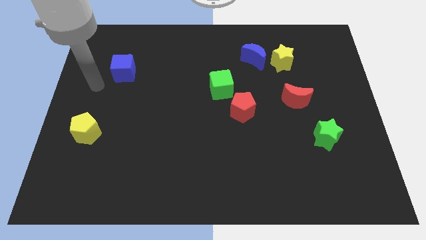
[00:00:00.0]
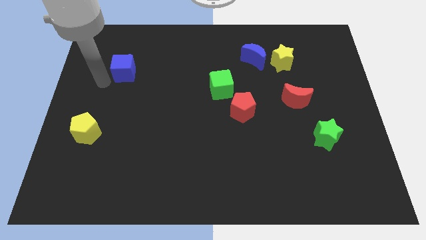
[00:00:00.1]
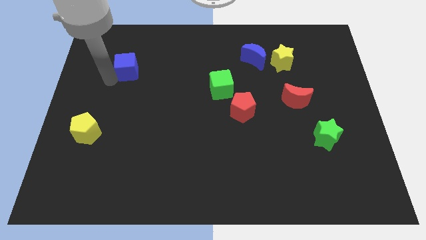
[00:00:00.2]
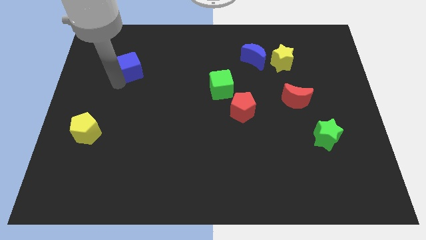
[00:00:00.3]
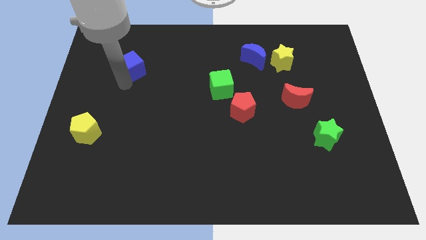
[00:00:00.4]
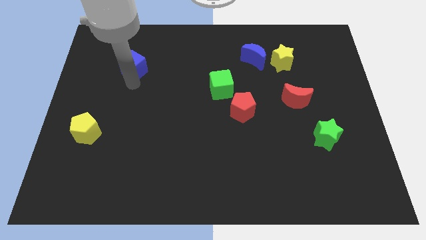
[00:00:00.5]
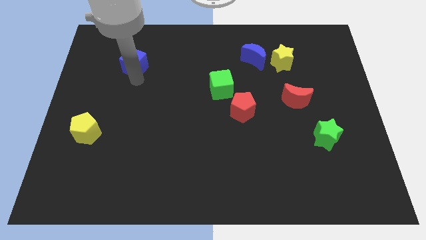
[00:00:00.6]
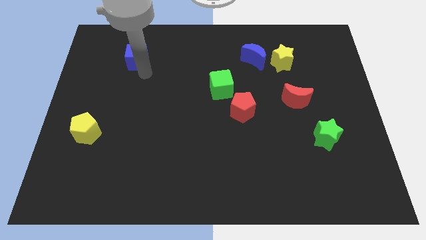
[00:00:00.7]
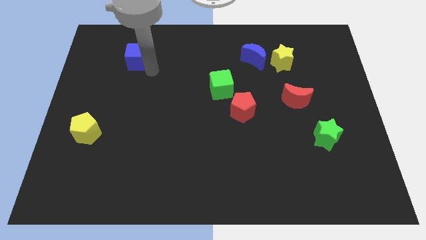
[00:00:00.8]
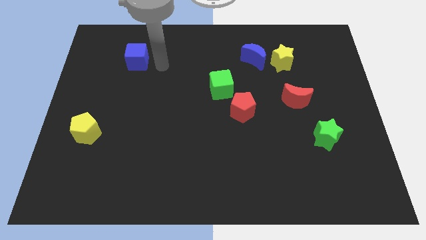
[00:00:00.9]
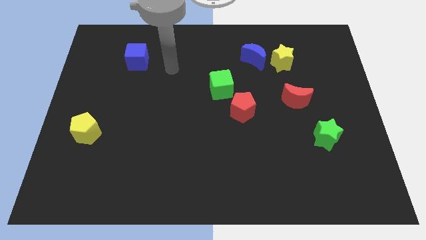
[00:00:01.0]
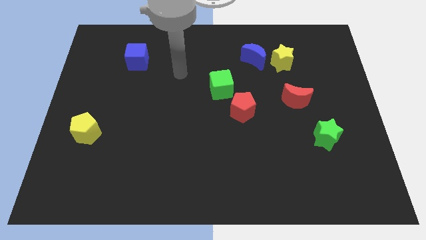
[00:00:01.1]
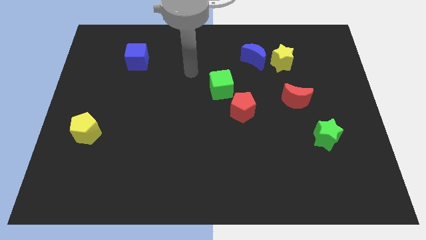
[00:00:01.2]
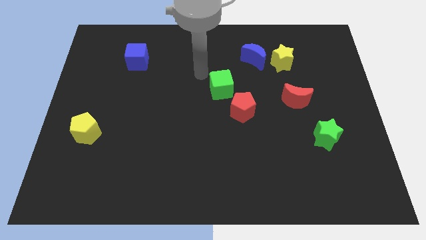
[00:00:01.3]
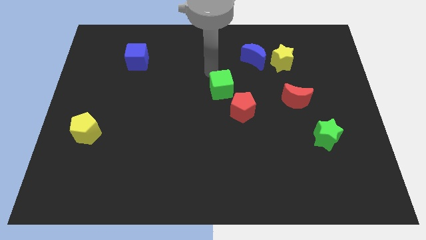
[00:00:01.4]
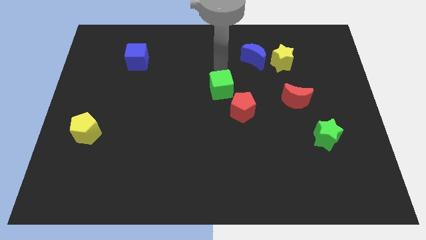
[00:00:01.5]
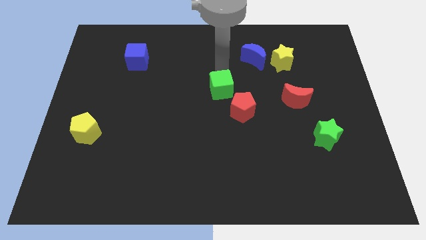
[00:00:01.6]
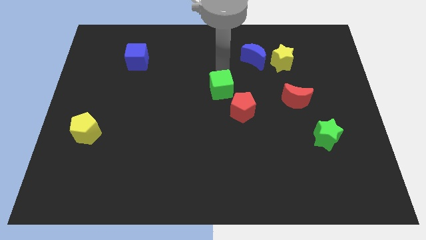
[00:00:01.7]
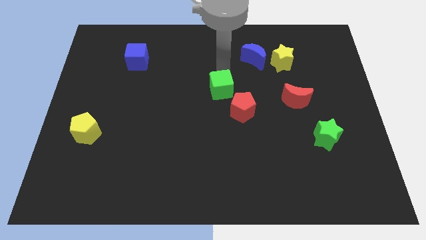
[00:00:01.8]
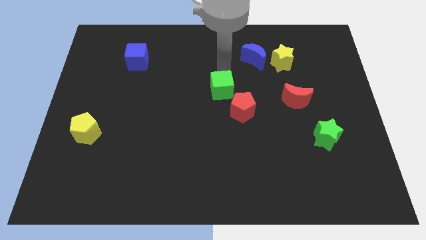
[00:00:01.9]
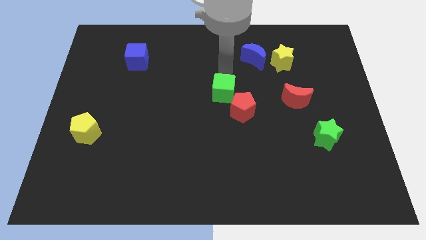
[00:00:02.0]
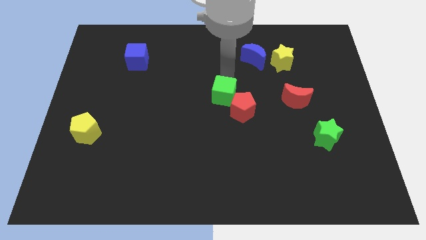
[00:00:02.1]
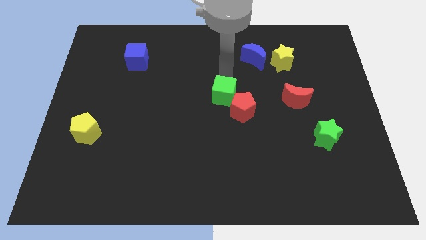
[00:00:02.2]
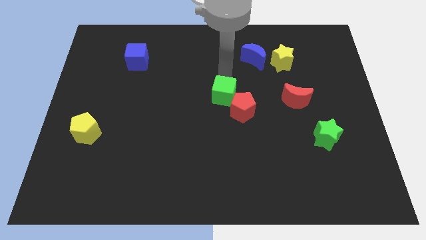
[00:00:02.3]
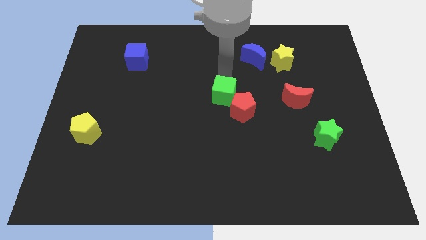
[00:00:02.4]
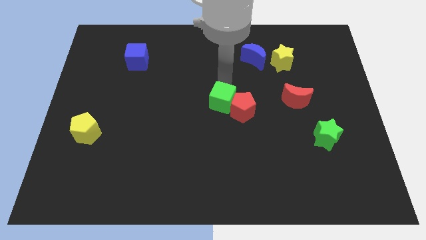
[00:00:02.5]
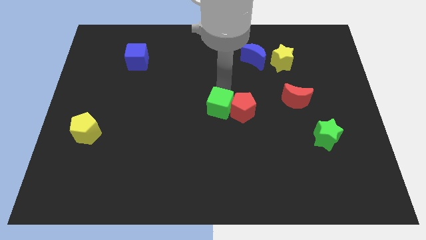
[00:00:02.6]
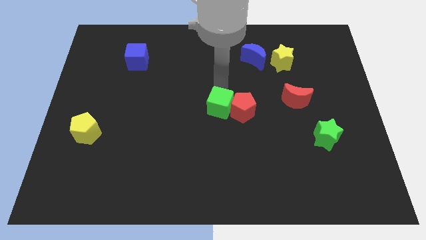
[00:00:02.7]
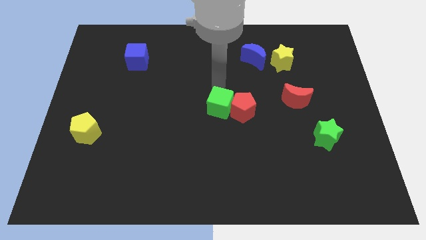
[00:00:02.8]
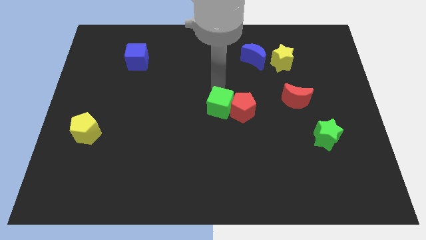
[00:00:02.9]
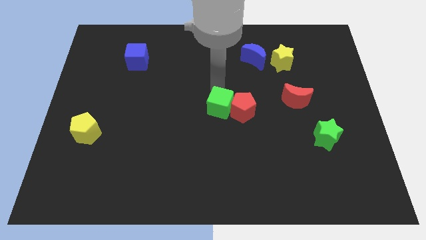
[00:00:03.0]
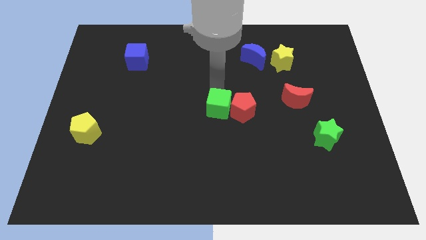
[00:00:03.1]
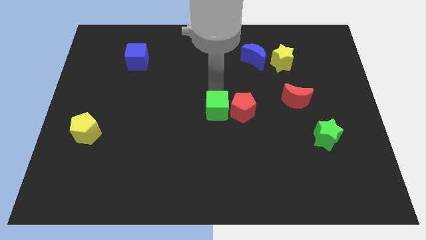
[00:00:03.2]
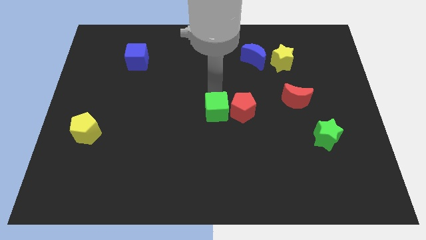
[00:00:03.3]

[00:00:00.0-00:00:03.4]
move the green cube slightly down

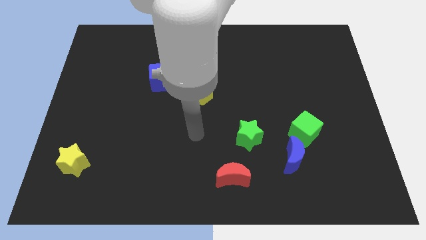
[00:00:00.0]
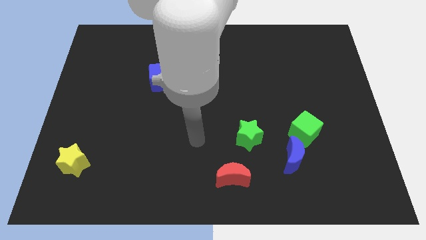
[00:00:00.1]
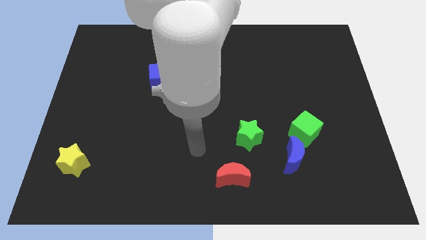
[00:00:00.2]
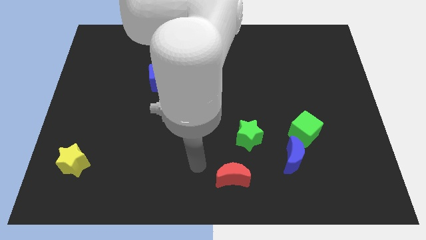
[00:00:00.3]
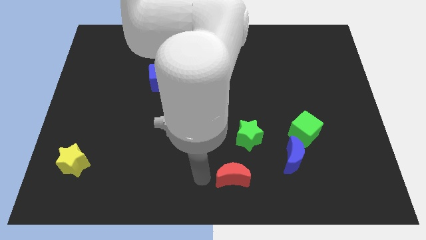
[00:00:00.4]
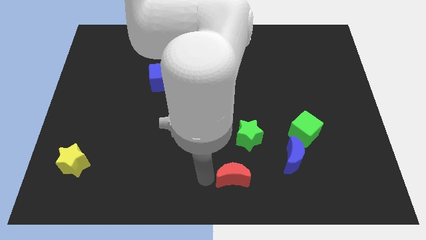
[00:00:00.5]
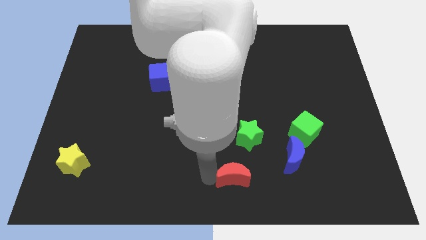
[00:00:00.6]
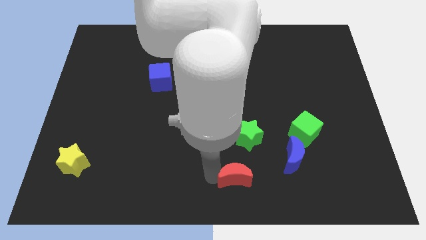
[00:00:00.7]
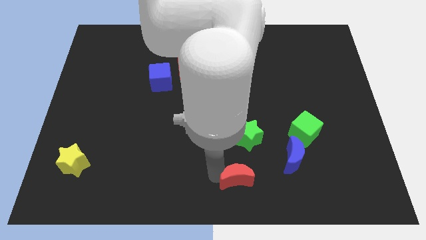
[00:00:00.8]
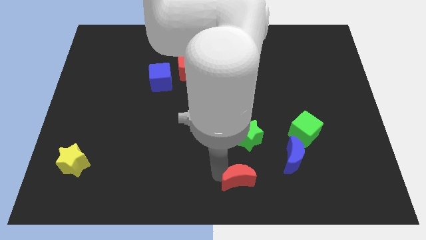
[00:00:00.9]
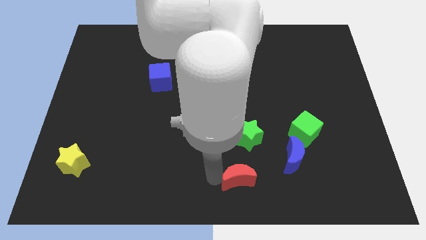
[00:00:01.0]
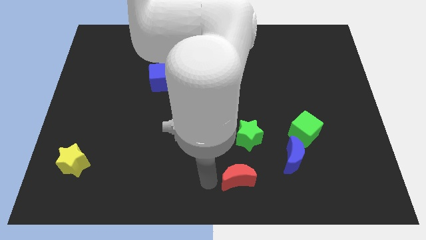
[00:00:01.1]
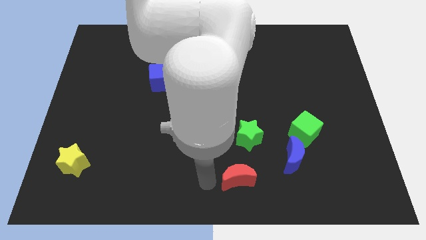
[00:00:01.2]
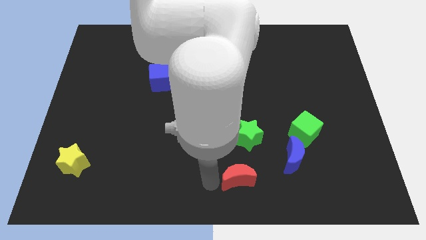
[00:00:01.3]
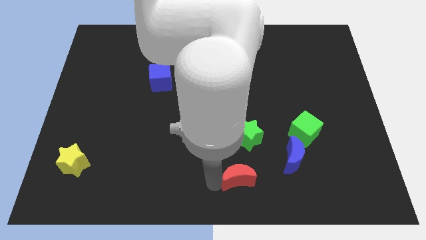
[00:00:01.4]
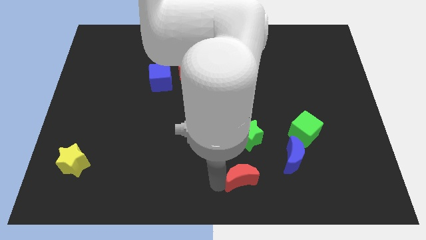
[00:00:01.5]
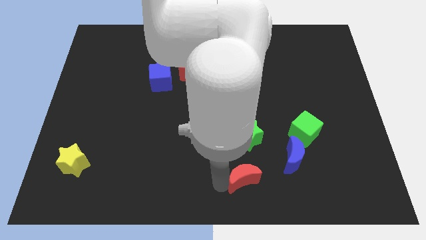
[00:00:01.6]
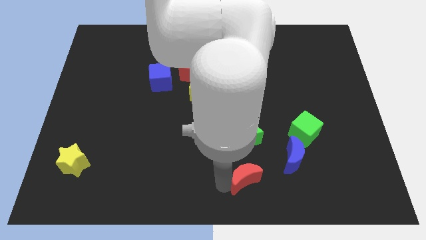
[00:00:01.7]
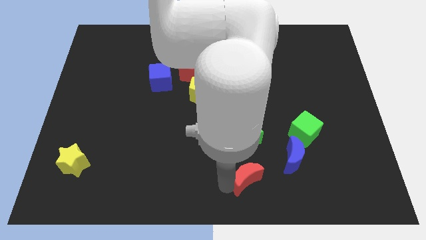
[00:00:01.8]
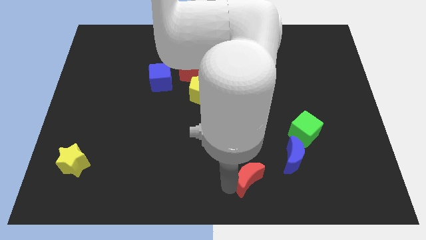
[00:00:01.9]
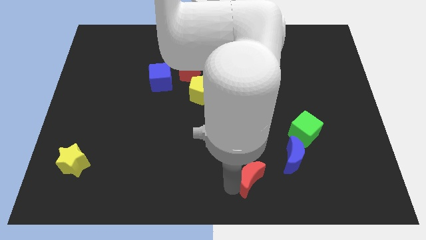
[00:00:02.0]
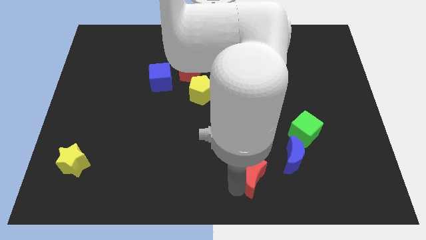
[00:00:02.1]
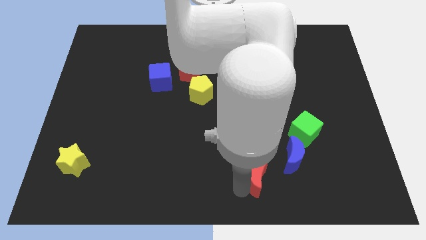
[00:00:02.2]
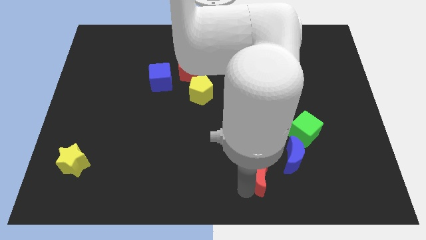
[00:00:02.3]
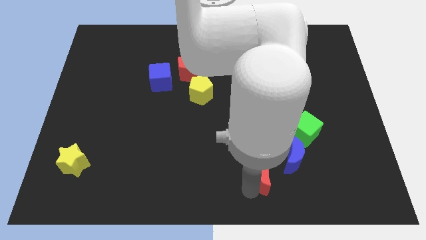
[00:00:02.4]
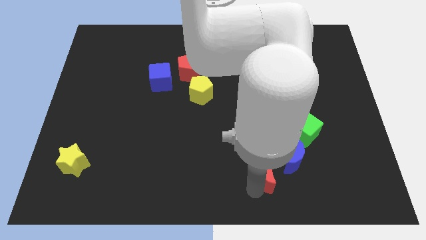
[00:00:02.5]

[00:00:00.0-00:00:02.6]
slightly push the red moon to the right

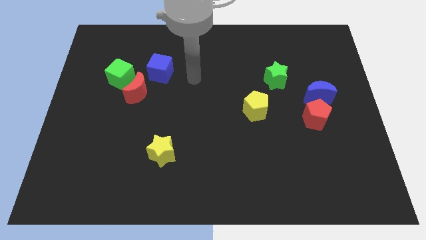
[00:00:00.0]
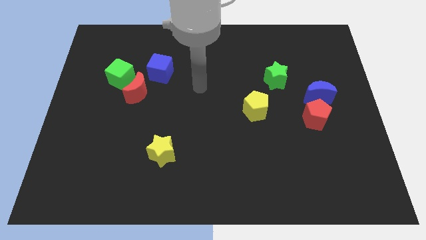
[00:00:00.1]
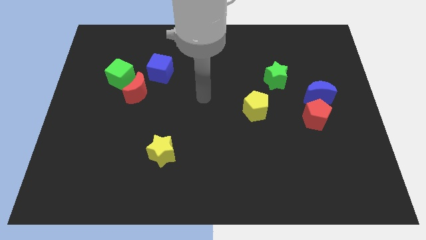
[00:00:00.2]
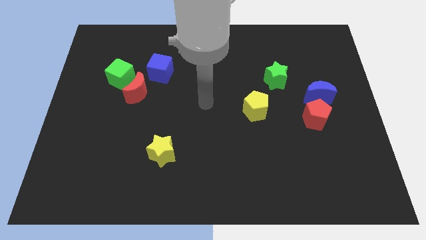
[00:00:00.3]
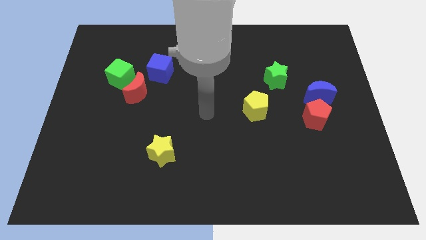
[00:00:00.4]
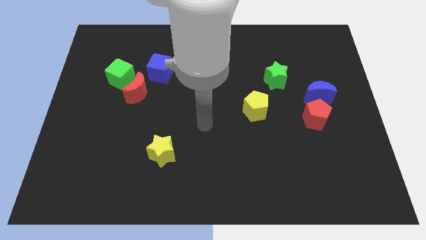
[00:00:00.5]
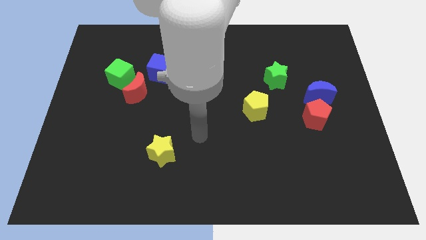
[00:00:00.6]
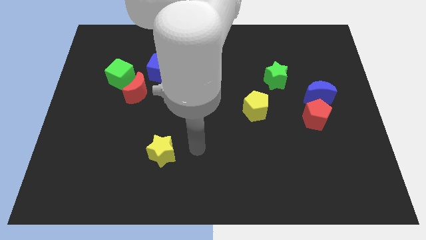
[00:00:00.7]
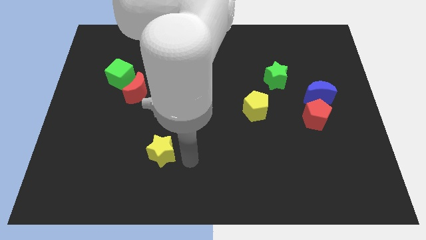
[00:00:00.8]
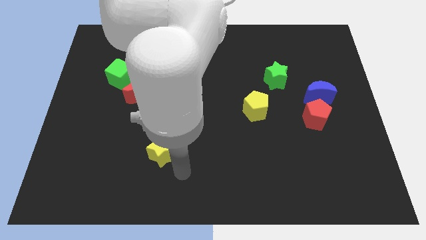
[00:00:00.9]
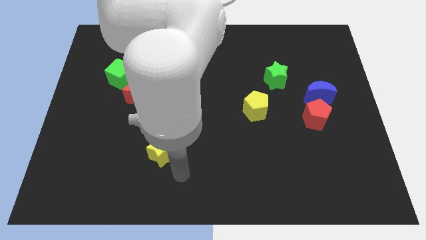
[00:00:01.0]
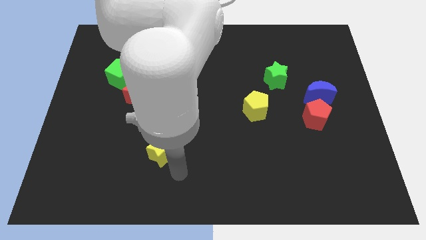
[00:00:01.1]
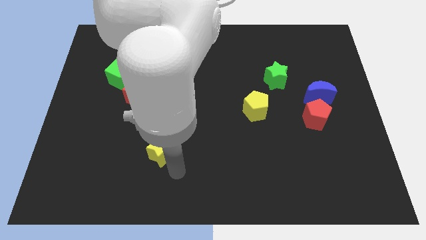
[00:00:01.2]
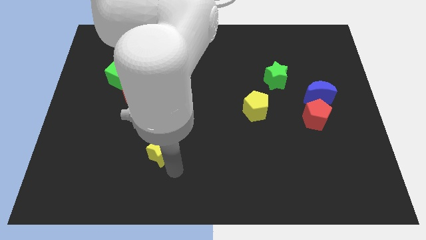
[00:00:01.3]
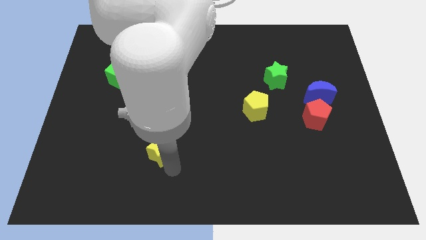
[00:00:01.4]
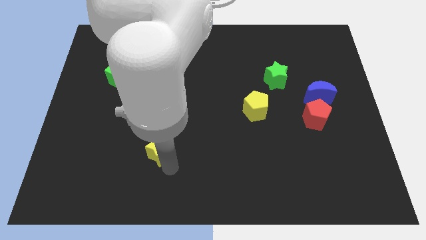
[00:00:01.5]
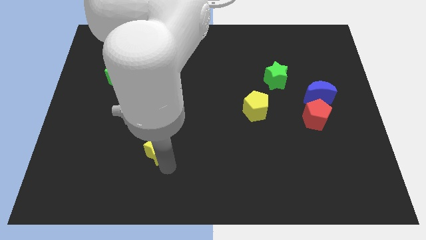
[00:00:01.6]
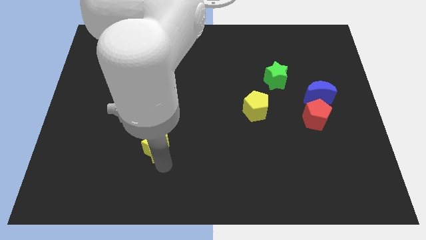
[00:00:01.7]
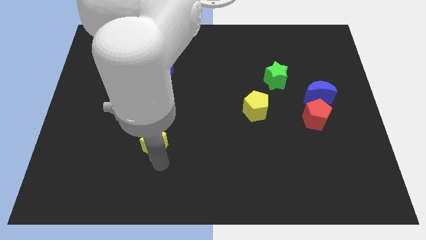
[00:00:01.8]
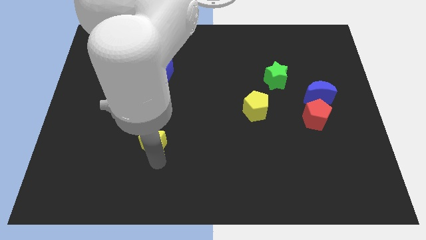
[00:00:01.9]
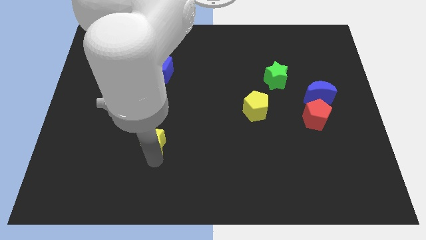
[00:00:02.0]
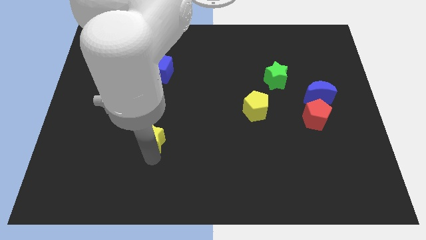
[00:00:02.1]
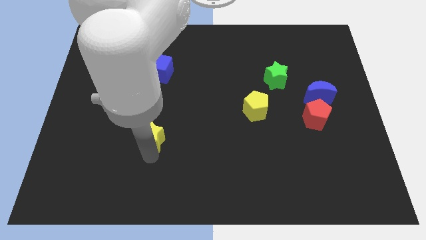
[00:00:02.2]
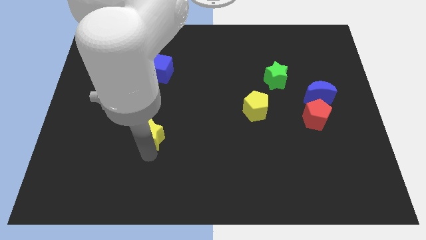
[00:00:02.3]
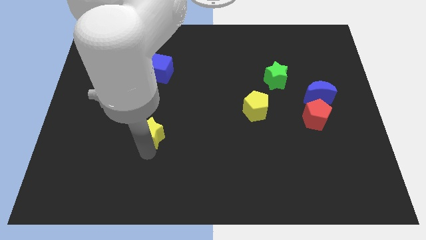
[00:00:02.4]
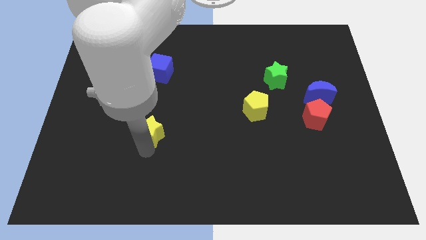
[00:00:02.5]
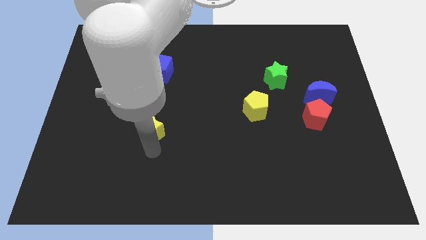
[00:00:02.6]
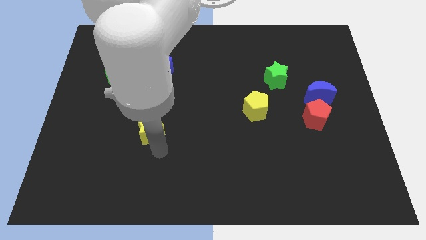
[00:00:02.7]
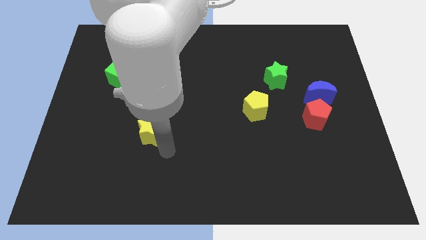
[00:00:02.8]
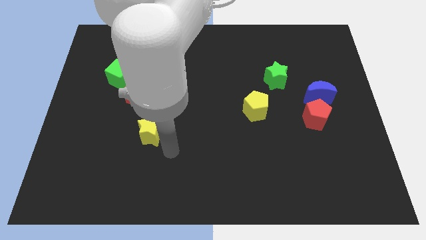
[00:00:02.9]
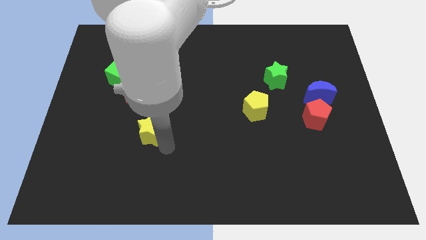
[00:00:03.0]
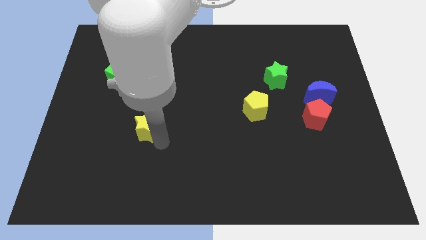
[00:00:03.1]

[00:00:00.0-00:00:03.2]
slide the yellow star slightly upwards and to the left diagonally
